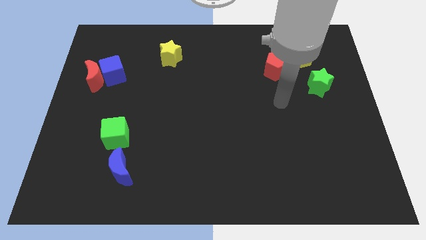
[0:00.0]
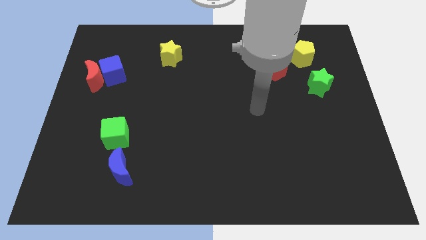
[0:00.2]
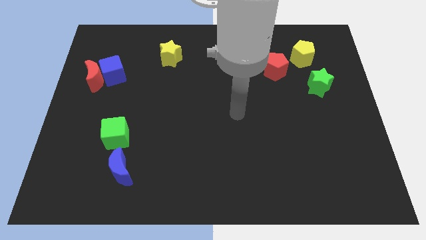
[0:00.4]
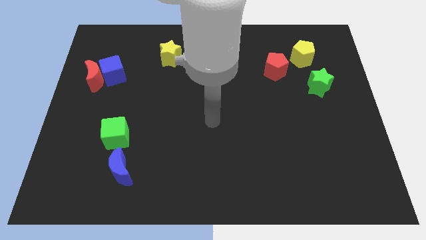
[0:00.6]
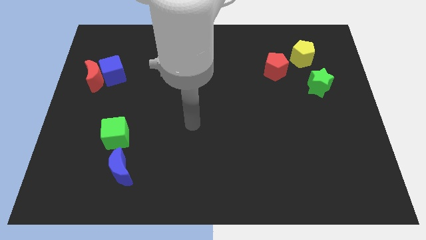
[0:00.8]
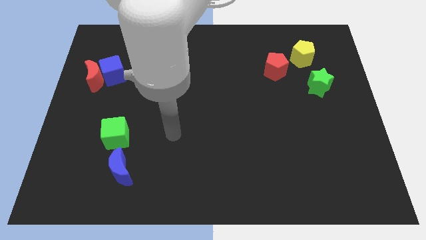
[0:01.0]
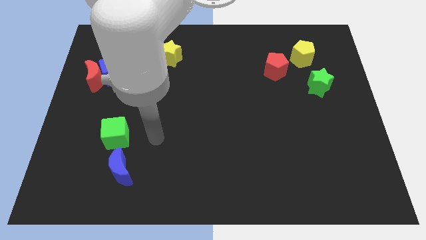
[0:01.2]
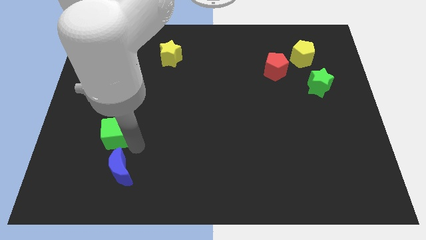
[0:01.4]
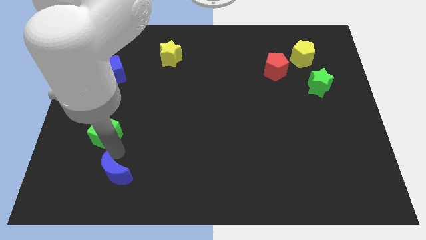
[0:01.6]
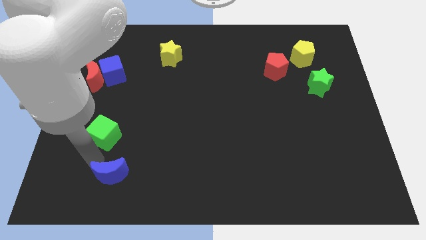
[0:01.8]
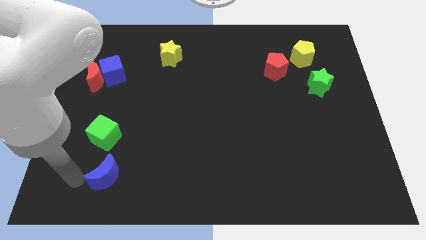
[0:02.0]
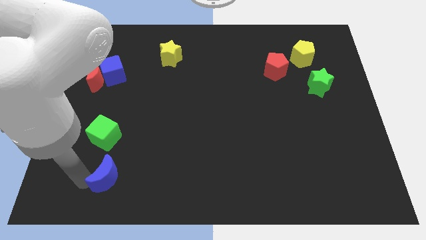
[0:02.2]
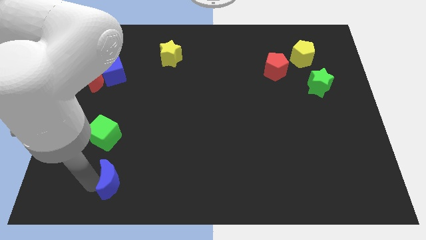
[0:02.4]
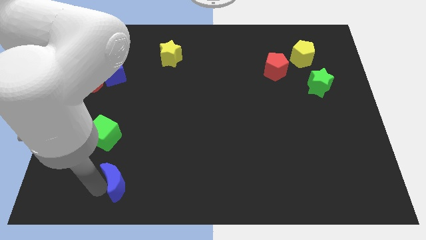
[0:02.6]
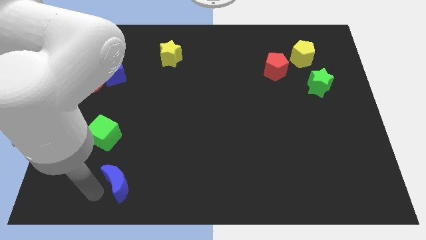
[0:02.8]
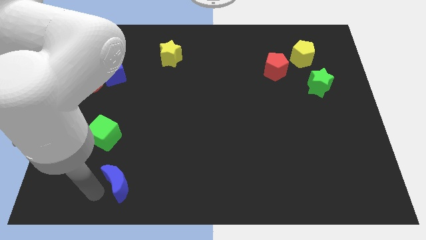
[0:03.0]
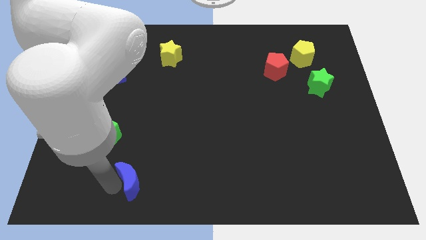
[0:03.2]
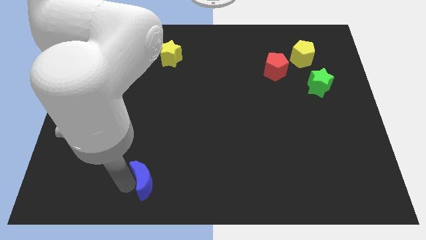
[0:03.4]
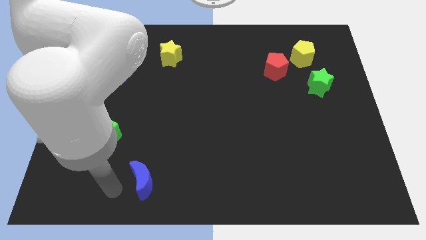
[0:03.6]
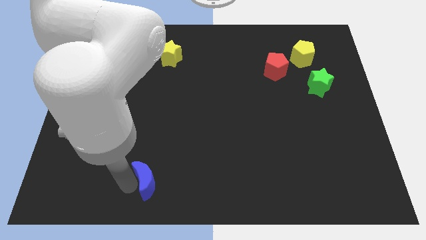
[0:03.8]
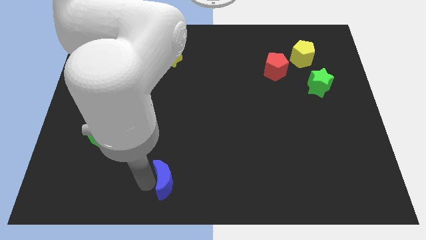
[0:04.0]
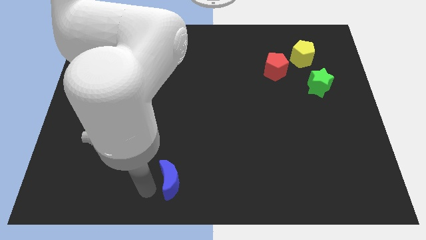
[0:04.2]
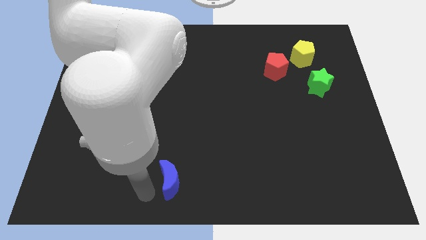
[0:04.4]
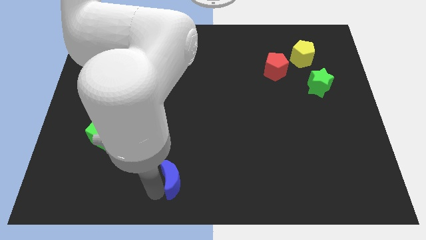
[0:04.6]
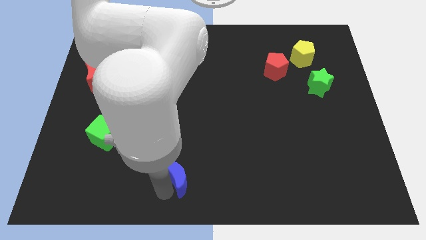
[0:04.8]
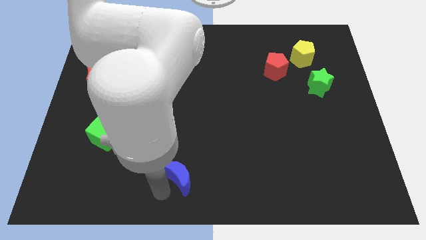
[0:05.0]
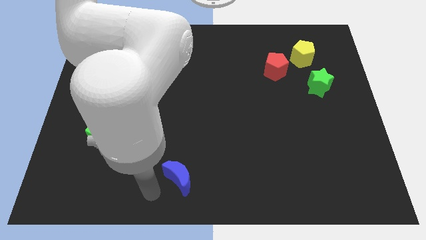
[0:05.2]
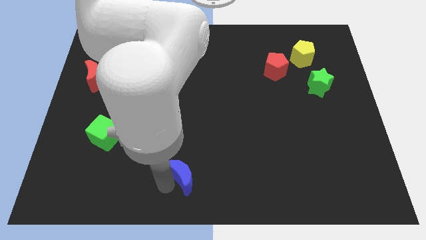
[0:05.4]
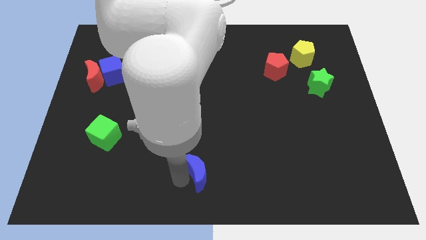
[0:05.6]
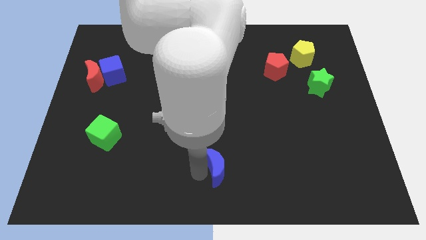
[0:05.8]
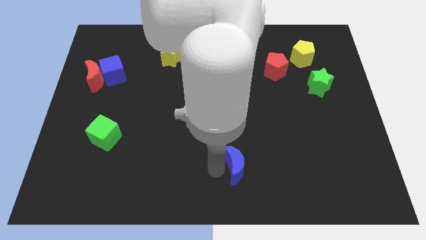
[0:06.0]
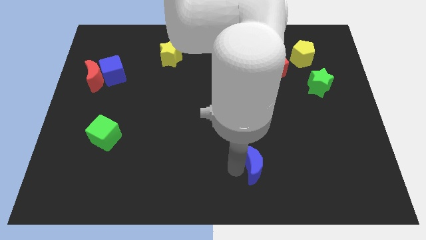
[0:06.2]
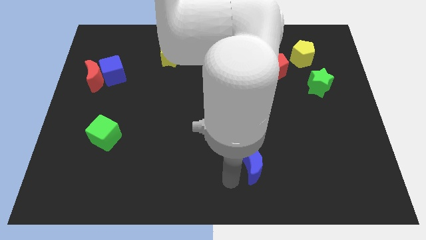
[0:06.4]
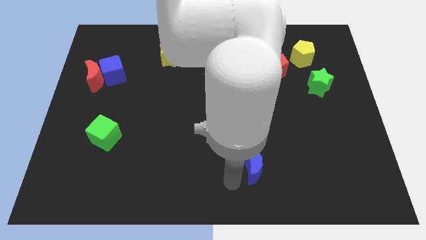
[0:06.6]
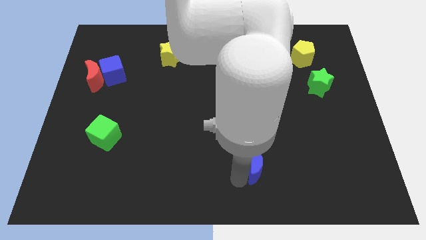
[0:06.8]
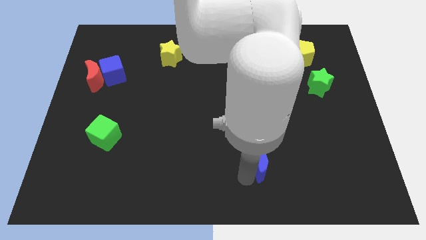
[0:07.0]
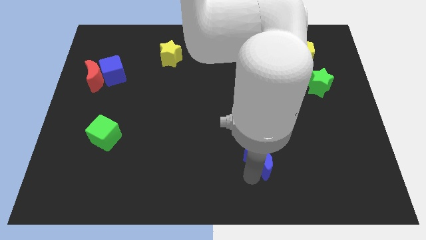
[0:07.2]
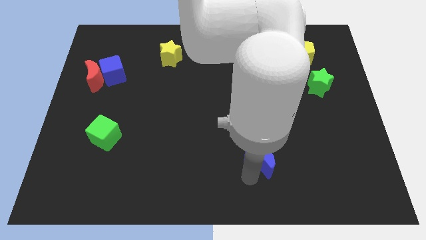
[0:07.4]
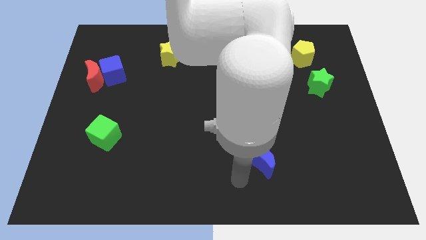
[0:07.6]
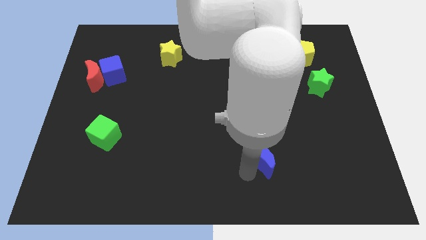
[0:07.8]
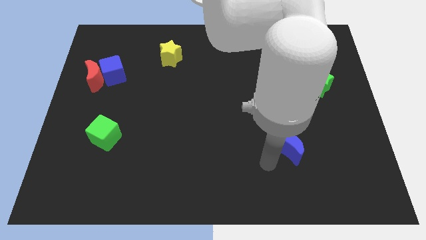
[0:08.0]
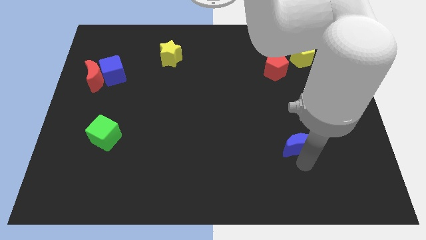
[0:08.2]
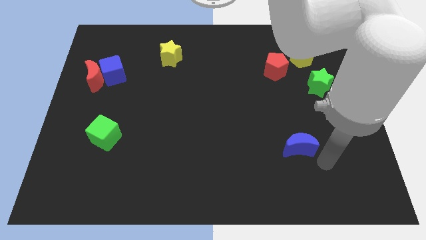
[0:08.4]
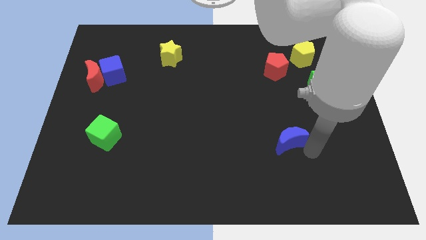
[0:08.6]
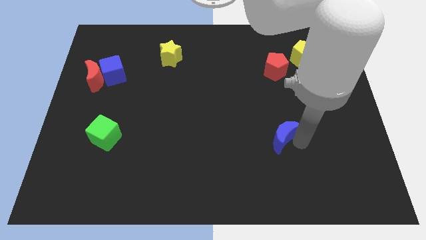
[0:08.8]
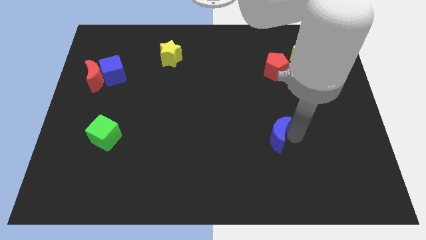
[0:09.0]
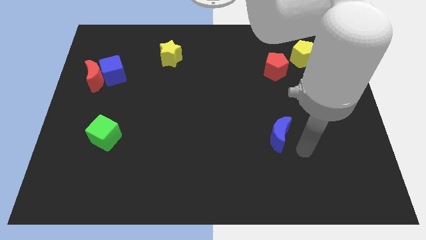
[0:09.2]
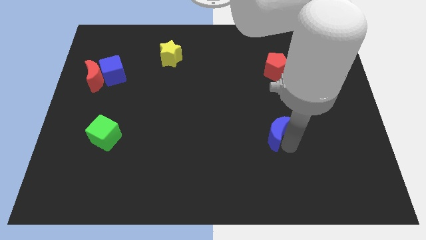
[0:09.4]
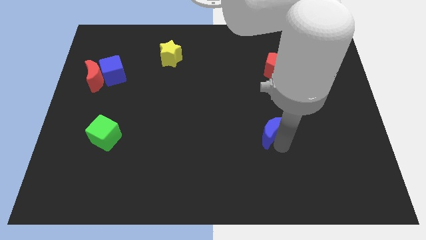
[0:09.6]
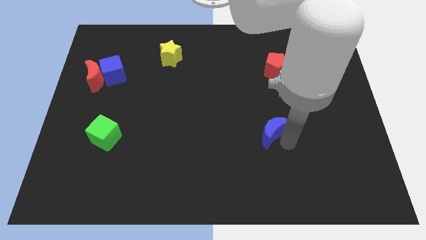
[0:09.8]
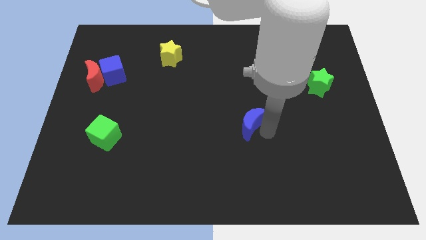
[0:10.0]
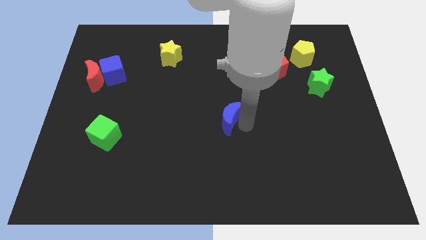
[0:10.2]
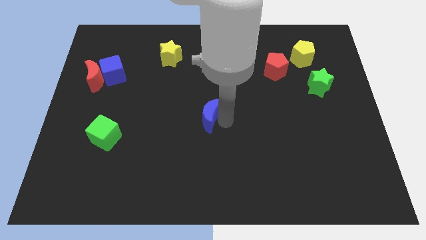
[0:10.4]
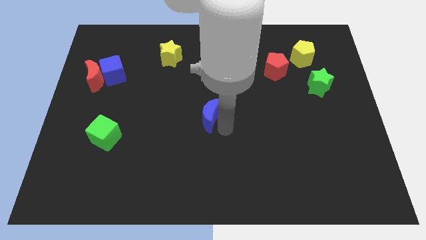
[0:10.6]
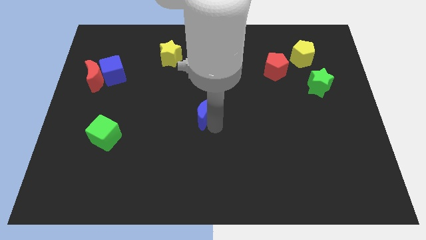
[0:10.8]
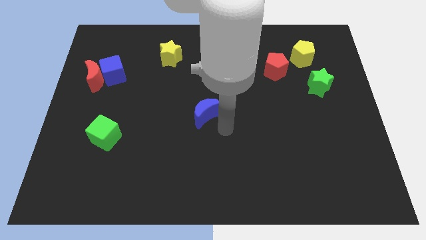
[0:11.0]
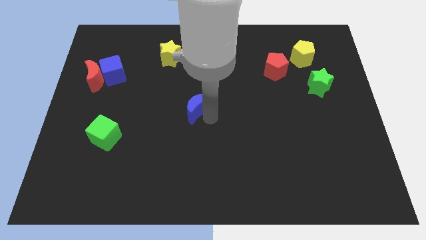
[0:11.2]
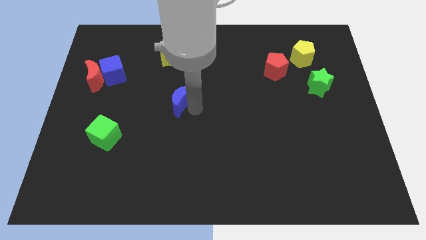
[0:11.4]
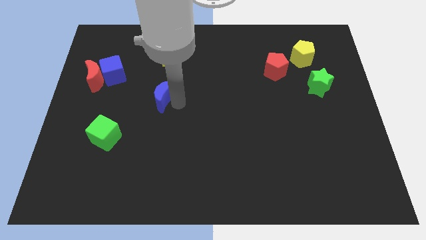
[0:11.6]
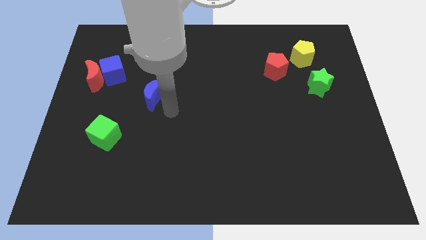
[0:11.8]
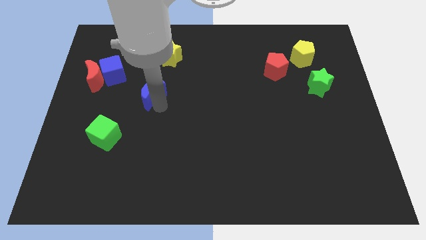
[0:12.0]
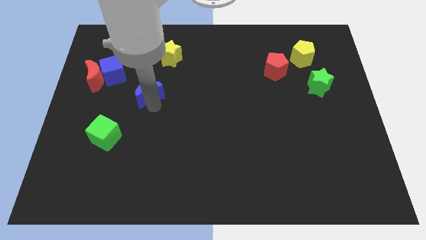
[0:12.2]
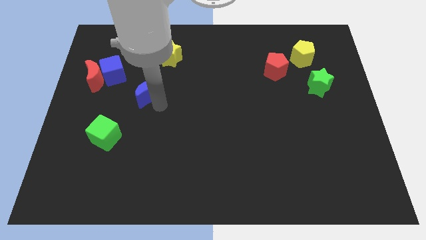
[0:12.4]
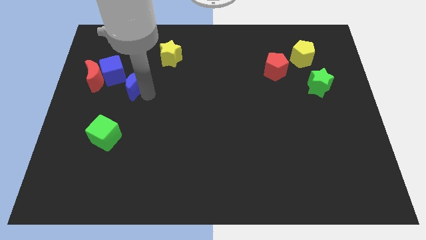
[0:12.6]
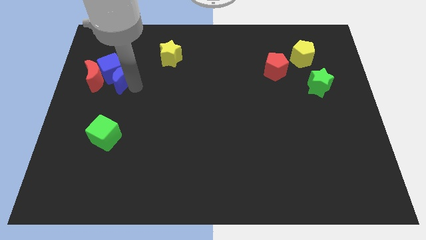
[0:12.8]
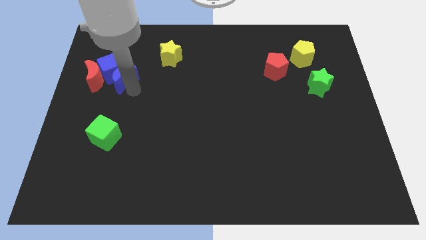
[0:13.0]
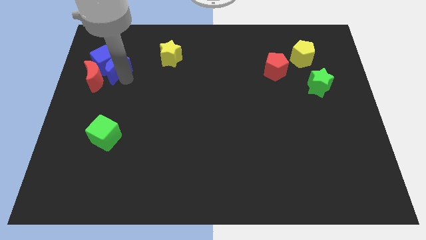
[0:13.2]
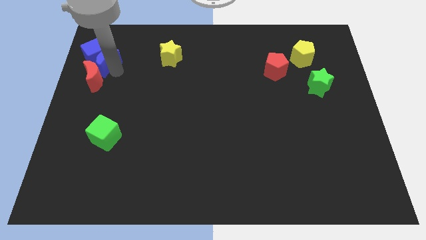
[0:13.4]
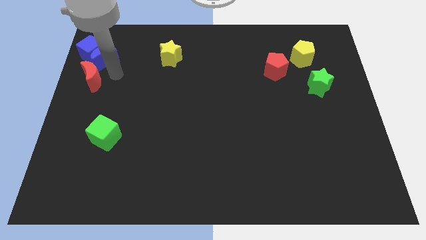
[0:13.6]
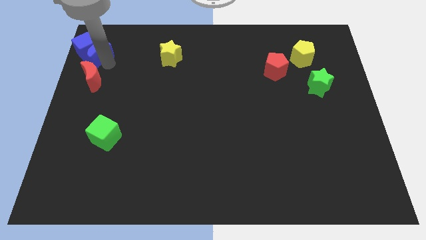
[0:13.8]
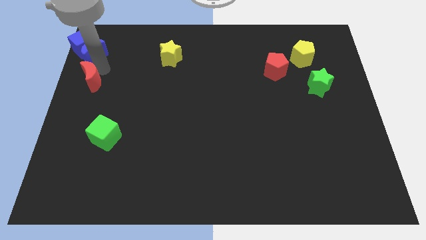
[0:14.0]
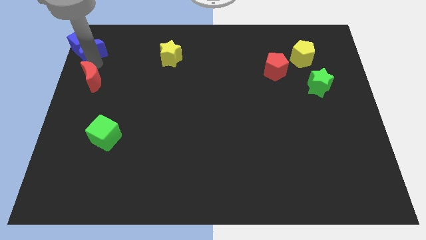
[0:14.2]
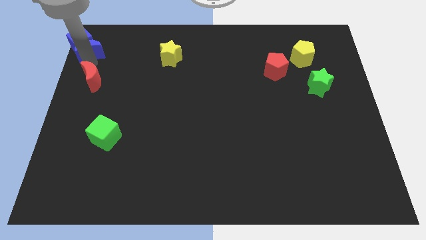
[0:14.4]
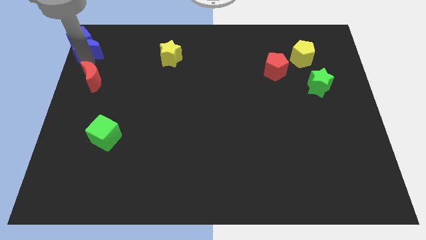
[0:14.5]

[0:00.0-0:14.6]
put the blue moon to the top left of the board
